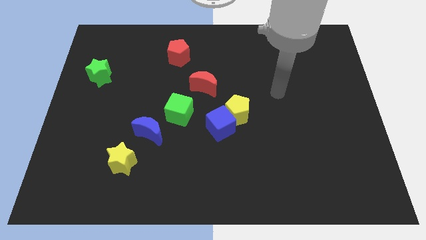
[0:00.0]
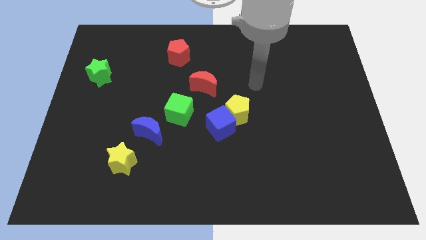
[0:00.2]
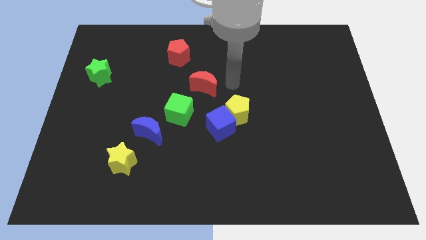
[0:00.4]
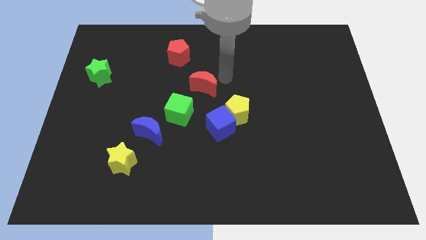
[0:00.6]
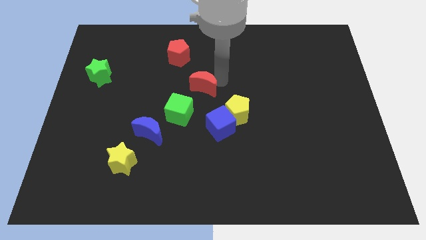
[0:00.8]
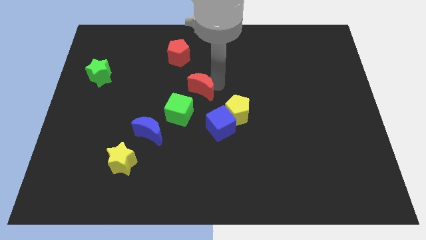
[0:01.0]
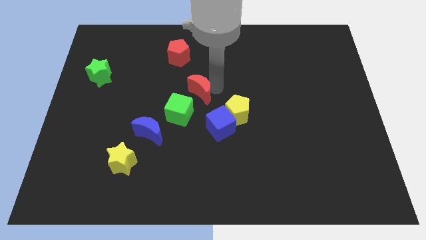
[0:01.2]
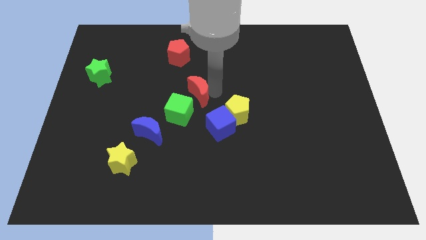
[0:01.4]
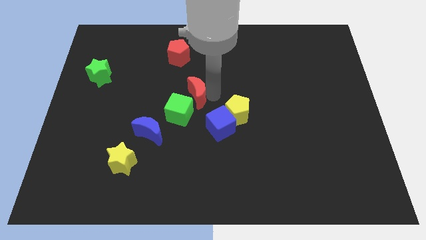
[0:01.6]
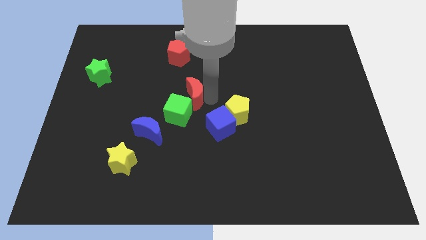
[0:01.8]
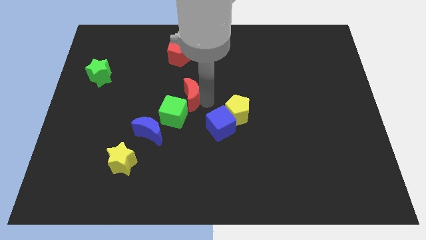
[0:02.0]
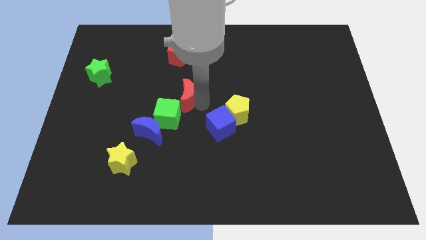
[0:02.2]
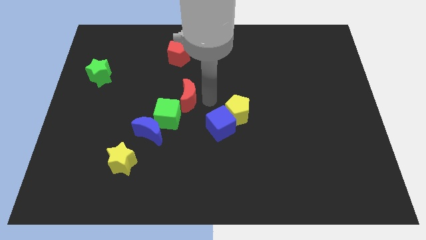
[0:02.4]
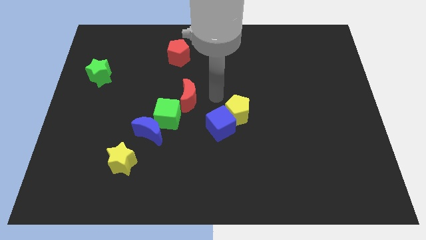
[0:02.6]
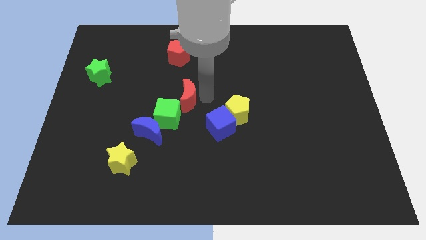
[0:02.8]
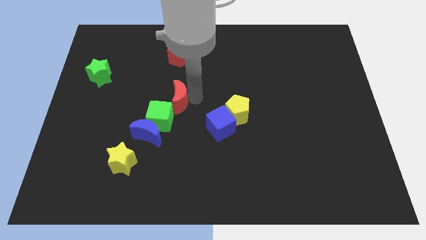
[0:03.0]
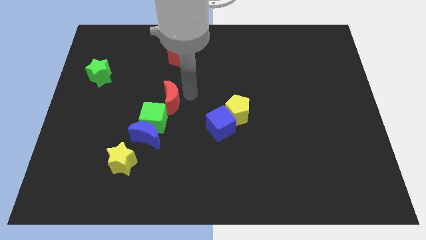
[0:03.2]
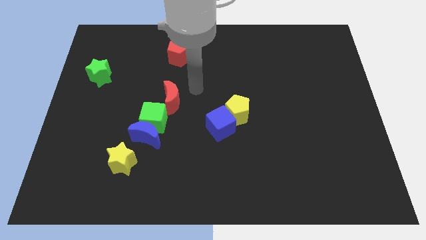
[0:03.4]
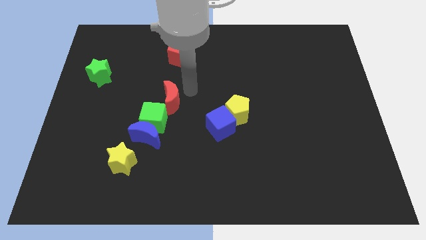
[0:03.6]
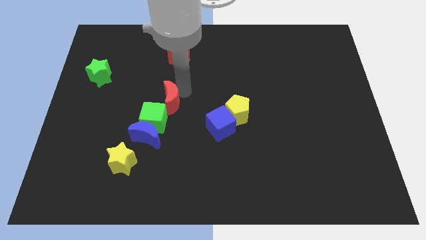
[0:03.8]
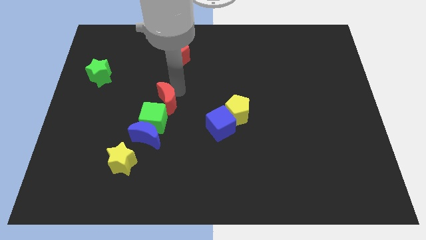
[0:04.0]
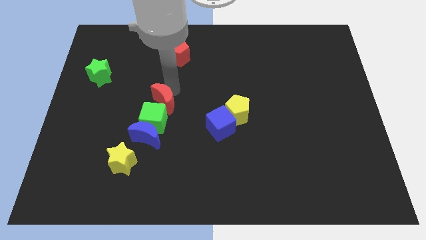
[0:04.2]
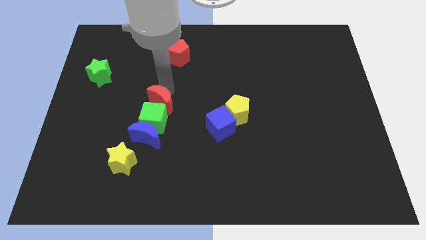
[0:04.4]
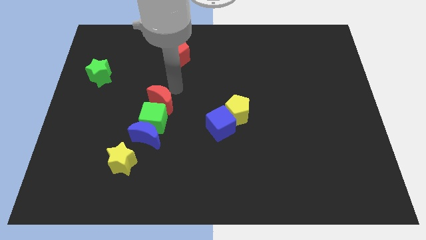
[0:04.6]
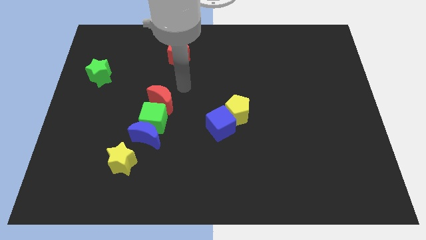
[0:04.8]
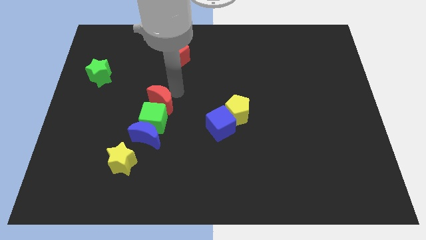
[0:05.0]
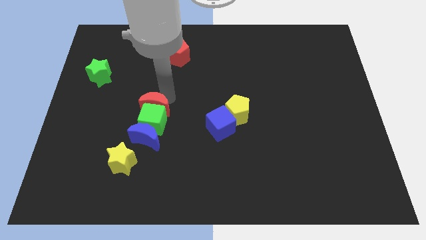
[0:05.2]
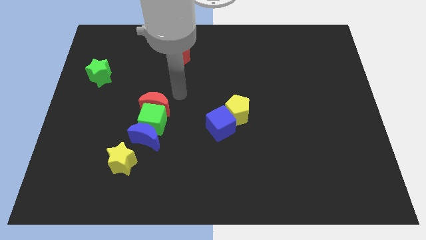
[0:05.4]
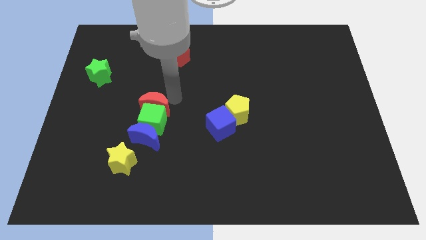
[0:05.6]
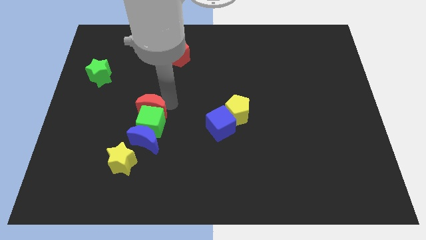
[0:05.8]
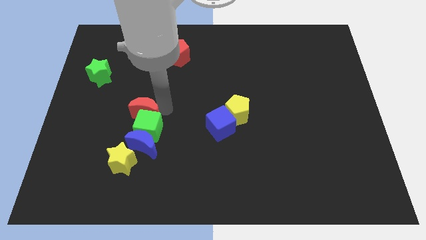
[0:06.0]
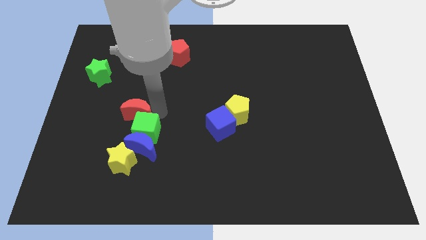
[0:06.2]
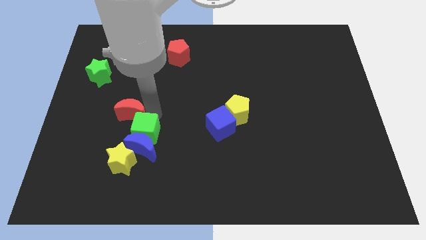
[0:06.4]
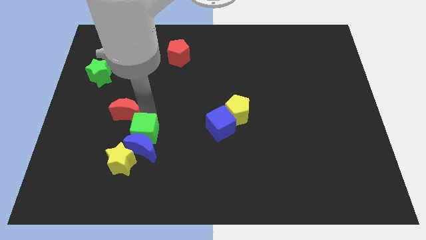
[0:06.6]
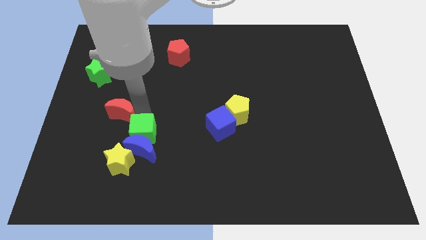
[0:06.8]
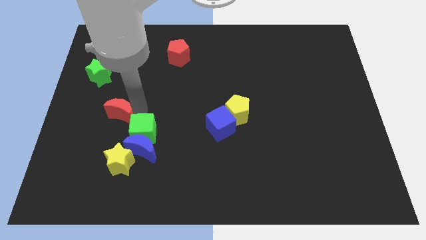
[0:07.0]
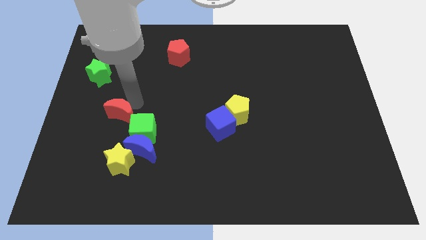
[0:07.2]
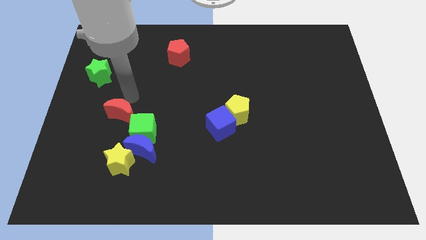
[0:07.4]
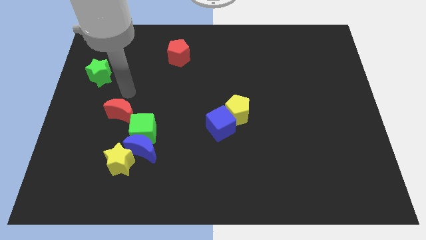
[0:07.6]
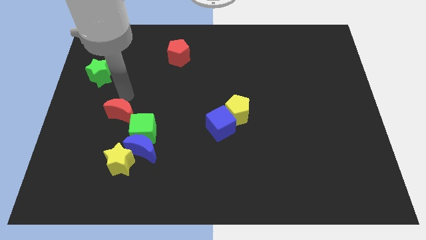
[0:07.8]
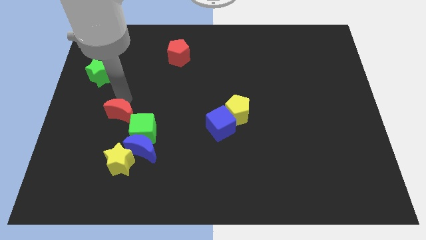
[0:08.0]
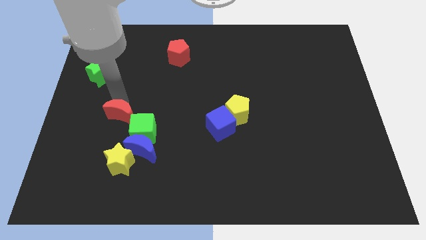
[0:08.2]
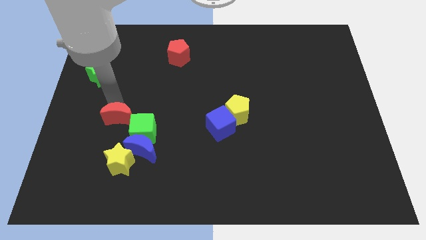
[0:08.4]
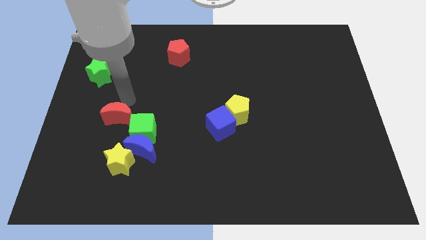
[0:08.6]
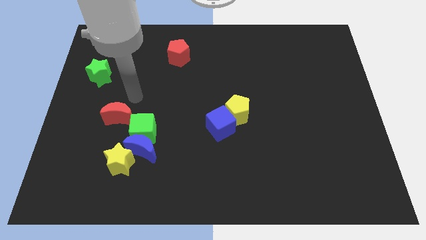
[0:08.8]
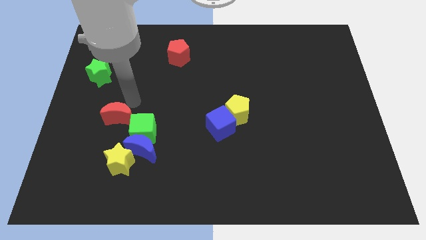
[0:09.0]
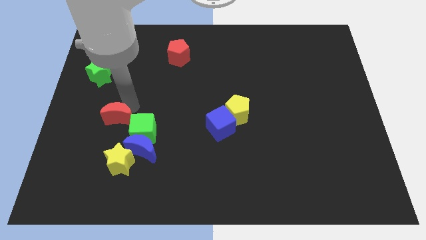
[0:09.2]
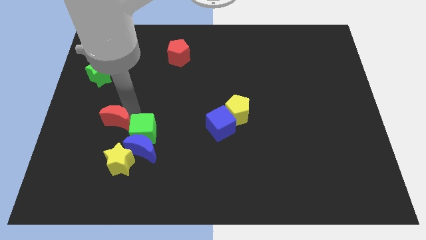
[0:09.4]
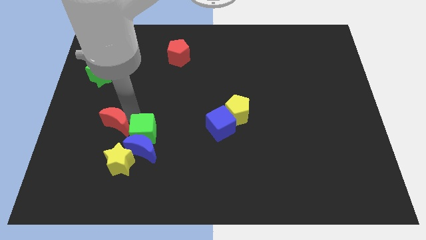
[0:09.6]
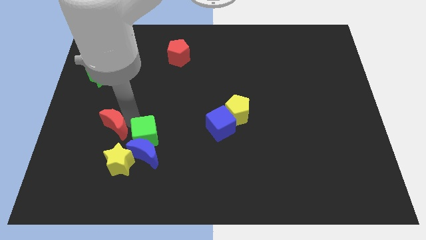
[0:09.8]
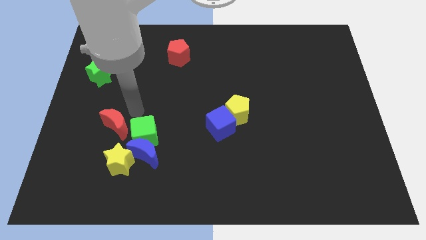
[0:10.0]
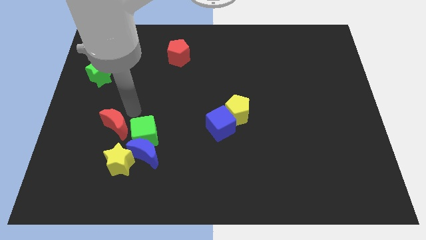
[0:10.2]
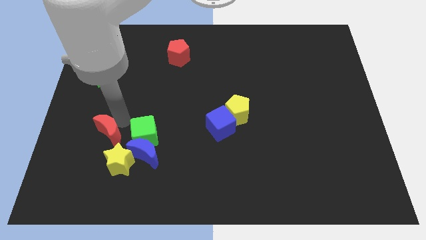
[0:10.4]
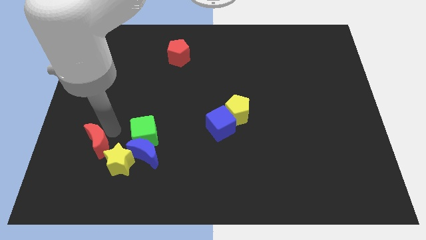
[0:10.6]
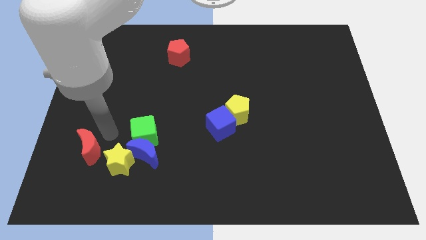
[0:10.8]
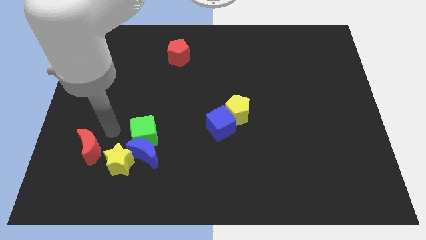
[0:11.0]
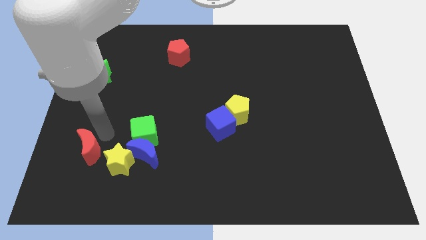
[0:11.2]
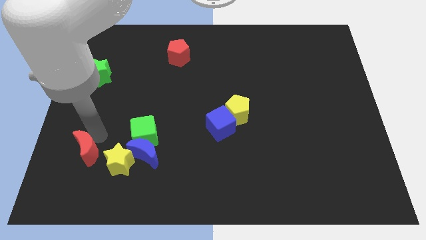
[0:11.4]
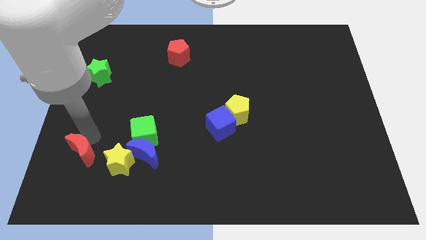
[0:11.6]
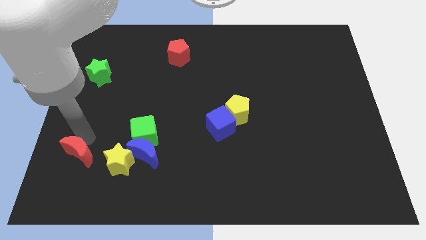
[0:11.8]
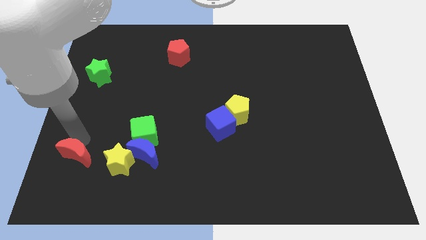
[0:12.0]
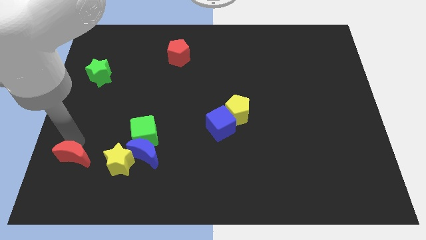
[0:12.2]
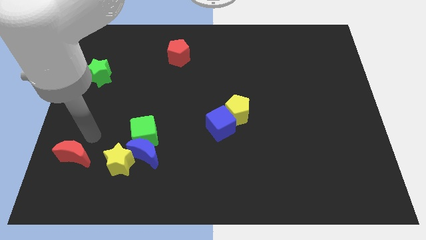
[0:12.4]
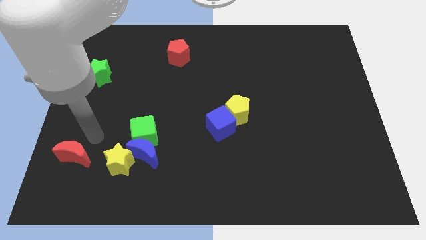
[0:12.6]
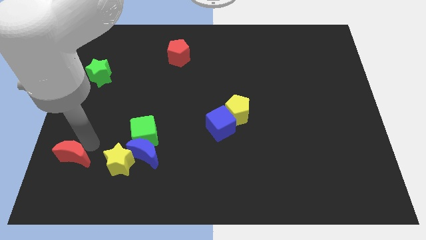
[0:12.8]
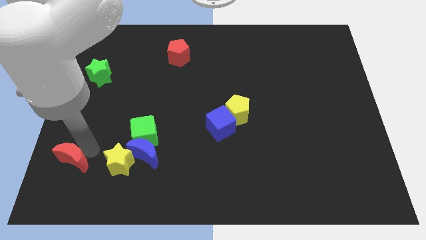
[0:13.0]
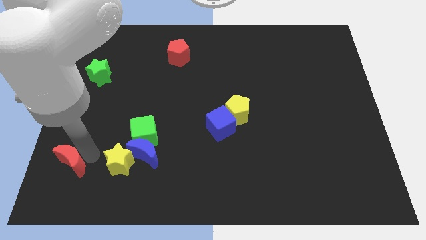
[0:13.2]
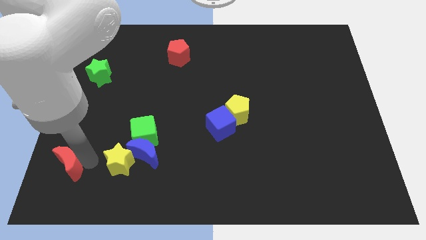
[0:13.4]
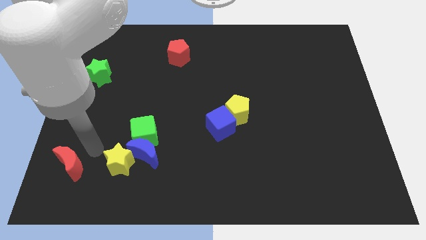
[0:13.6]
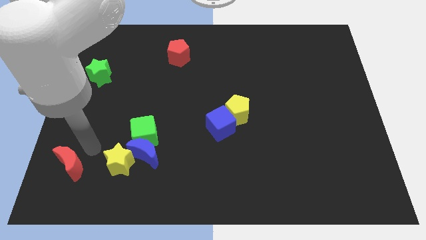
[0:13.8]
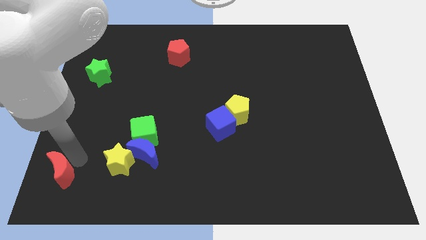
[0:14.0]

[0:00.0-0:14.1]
push the red moon to the lower left corner
